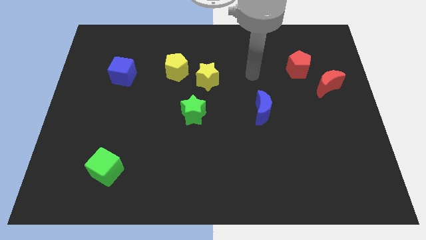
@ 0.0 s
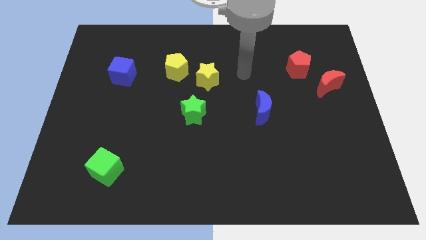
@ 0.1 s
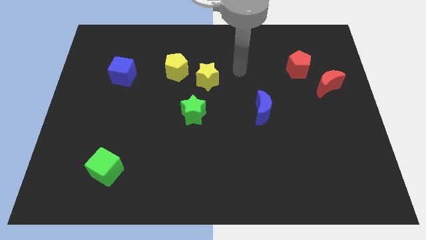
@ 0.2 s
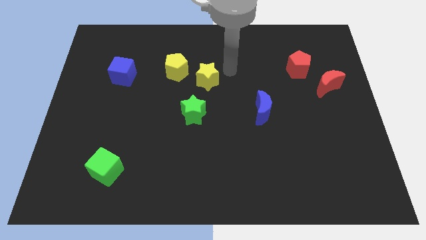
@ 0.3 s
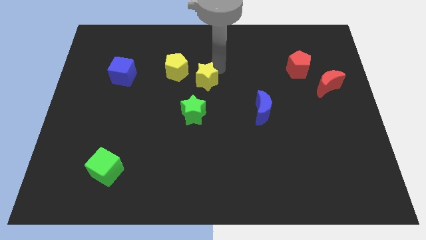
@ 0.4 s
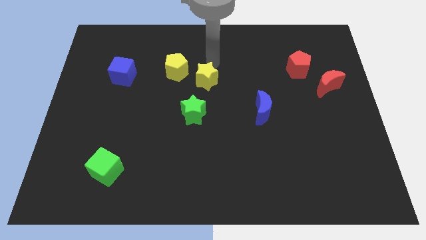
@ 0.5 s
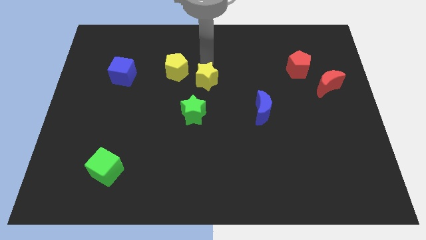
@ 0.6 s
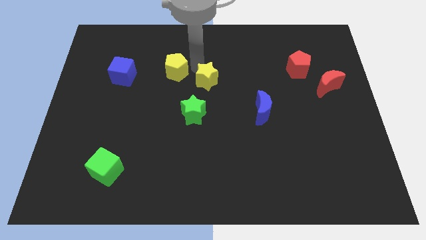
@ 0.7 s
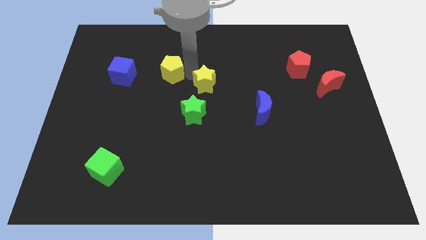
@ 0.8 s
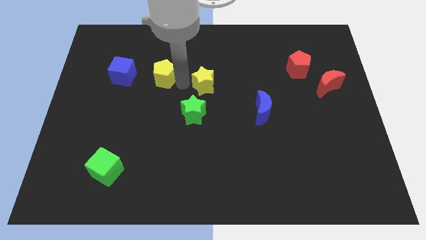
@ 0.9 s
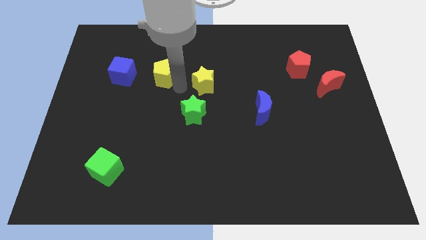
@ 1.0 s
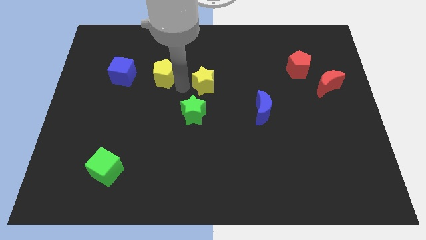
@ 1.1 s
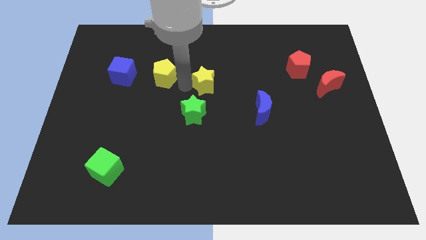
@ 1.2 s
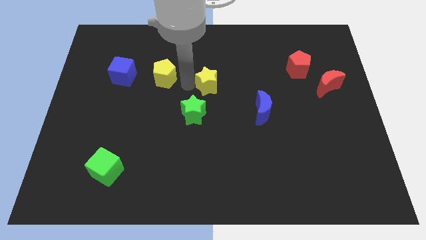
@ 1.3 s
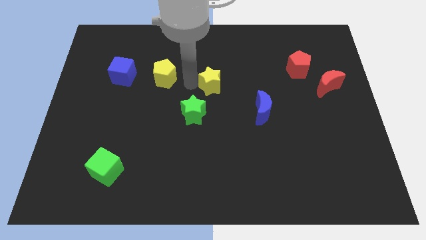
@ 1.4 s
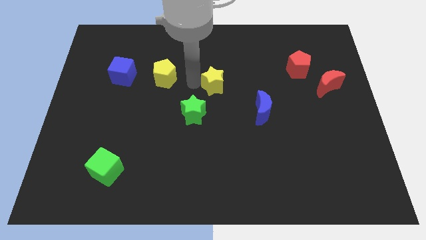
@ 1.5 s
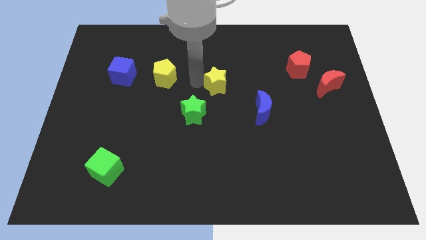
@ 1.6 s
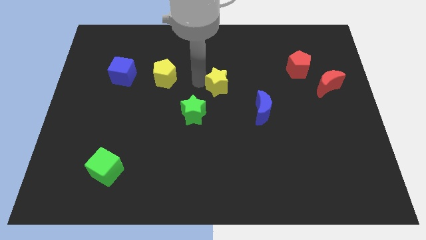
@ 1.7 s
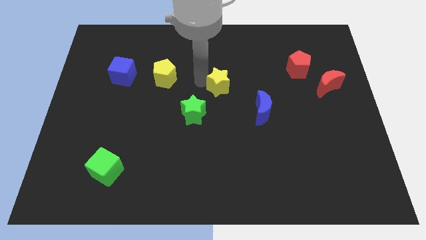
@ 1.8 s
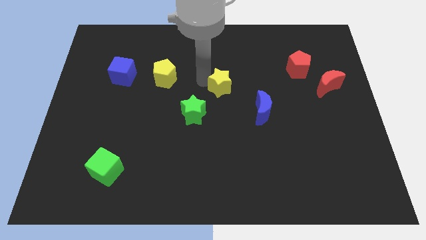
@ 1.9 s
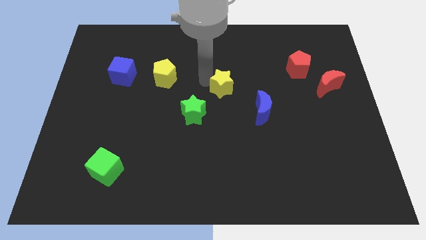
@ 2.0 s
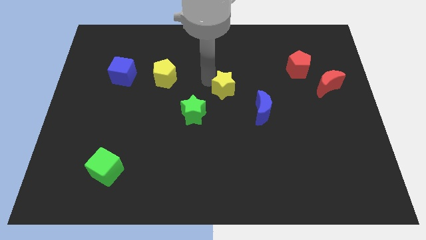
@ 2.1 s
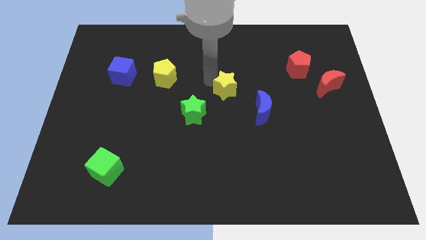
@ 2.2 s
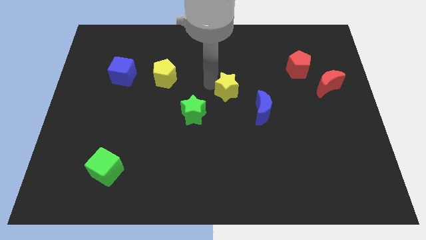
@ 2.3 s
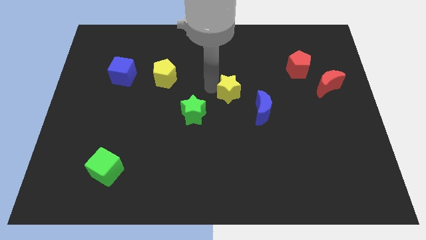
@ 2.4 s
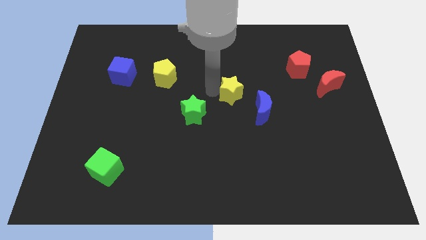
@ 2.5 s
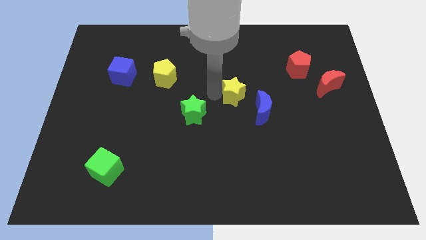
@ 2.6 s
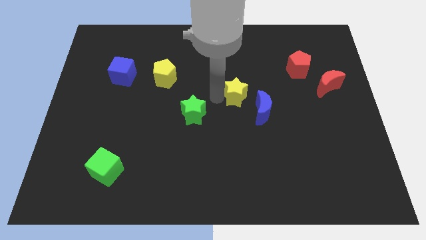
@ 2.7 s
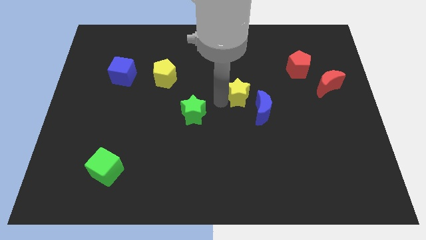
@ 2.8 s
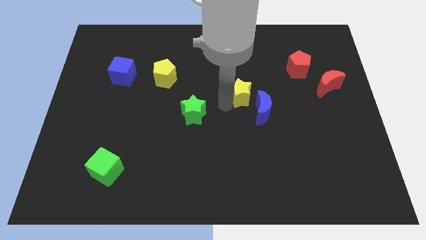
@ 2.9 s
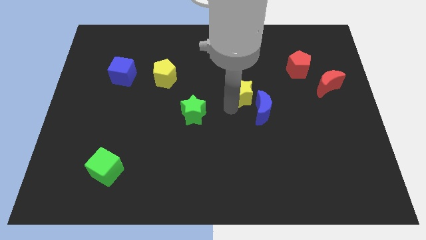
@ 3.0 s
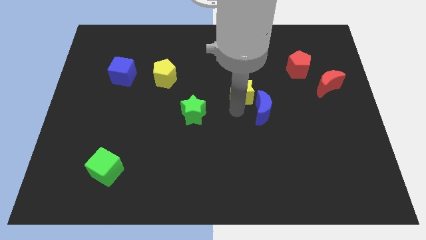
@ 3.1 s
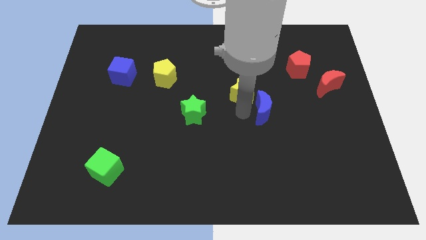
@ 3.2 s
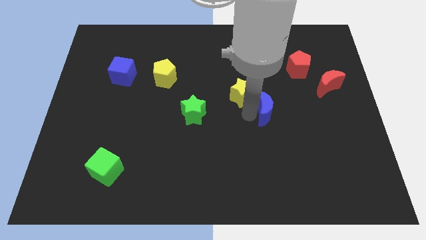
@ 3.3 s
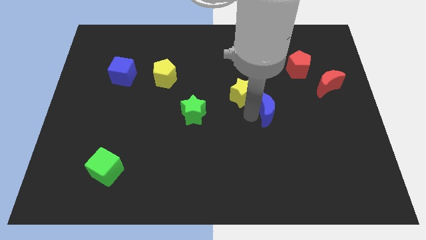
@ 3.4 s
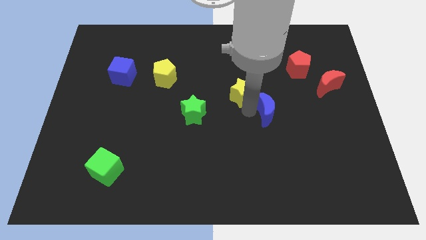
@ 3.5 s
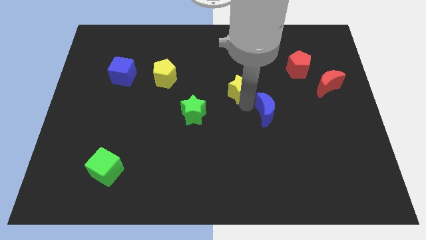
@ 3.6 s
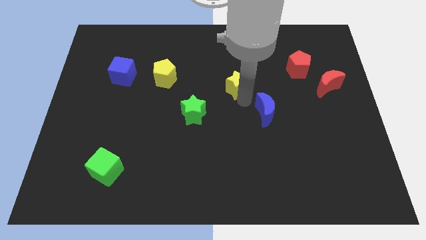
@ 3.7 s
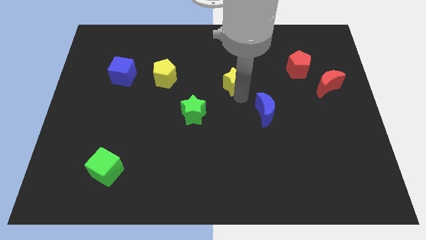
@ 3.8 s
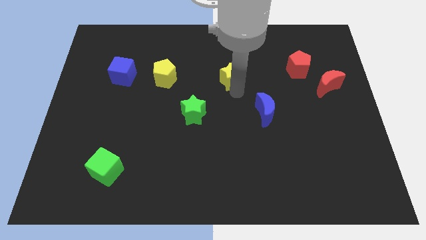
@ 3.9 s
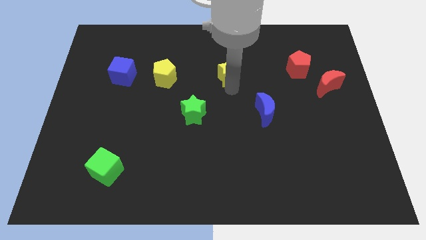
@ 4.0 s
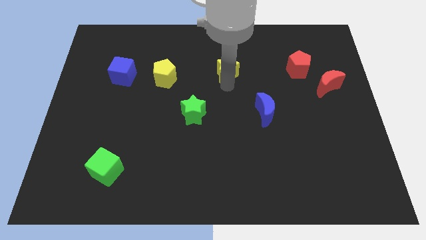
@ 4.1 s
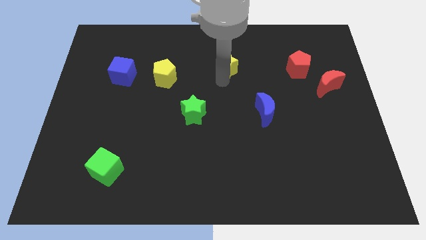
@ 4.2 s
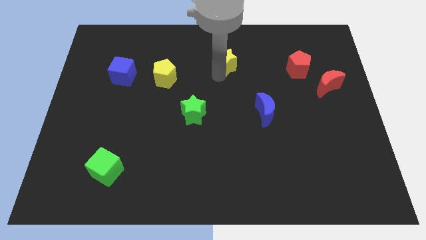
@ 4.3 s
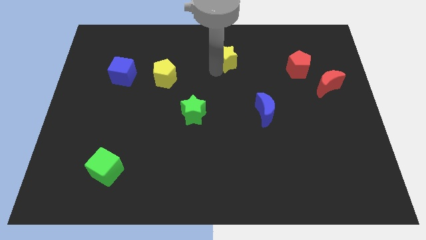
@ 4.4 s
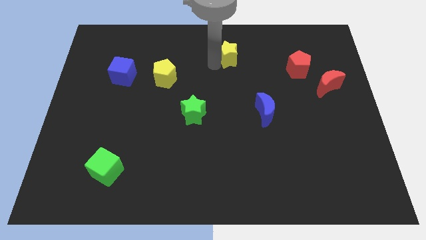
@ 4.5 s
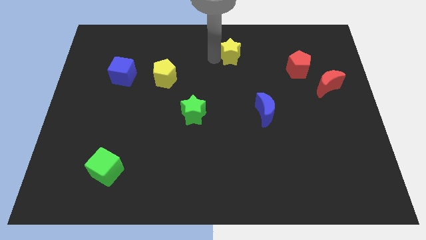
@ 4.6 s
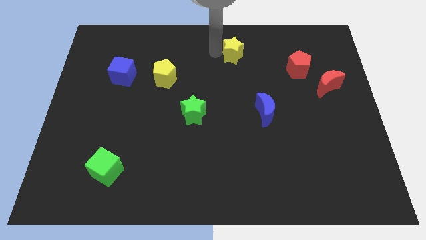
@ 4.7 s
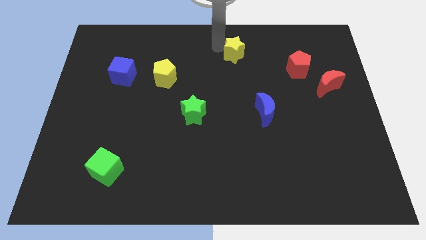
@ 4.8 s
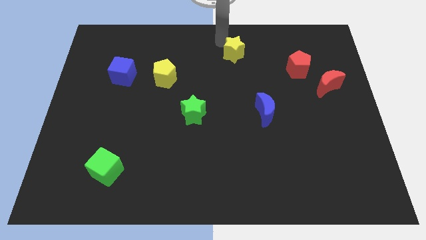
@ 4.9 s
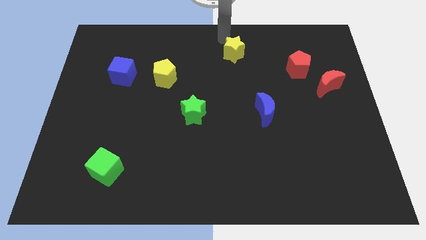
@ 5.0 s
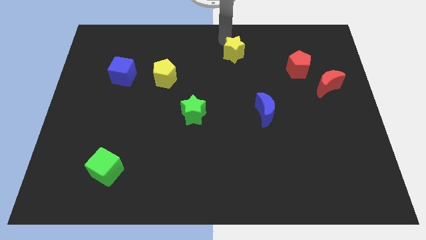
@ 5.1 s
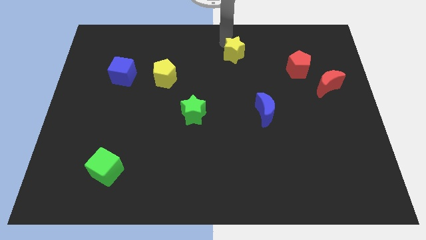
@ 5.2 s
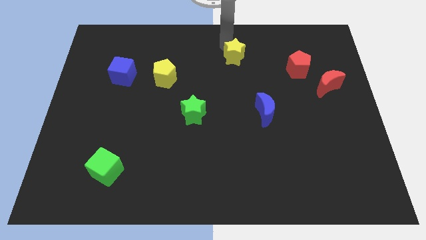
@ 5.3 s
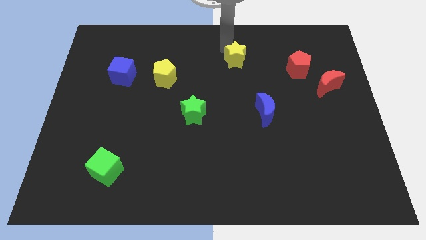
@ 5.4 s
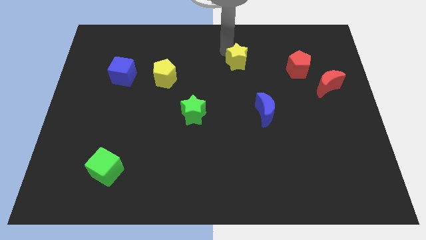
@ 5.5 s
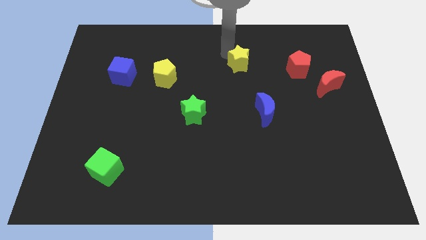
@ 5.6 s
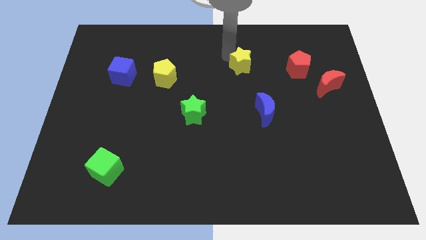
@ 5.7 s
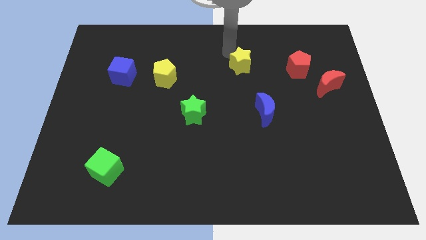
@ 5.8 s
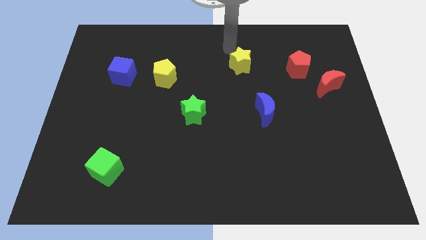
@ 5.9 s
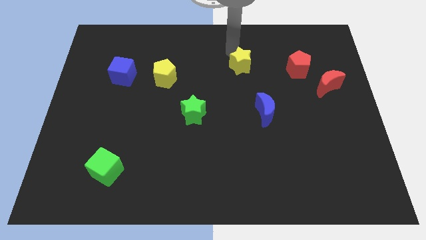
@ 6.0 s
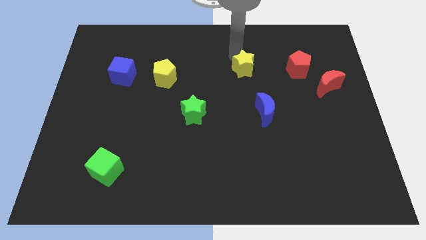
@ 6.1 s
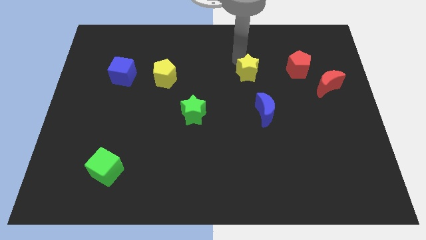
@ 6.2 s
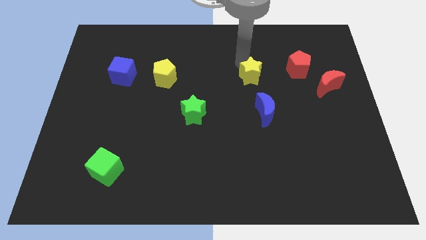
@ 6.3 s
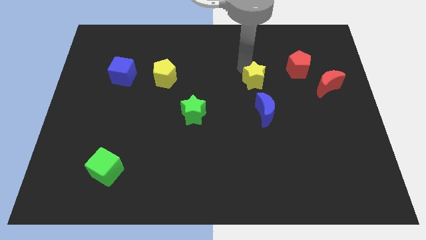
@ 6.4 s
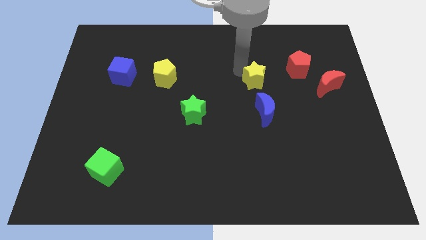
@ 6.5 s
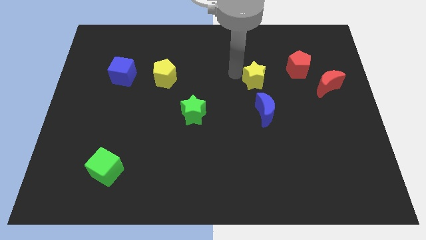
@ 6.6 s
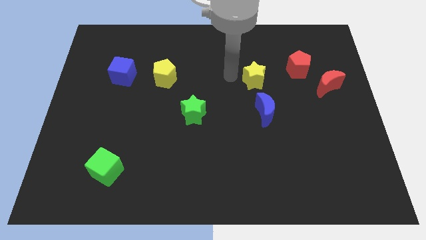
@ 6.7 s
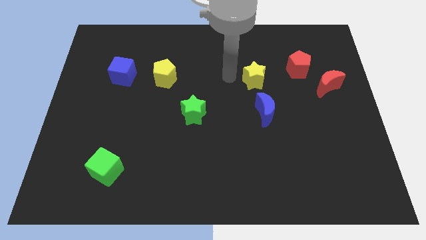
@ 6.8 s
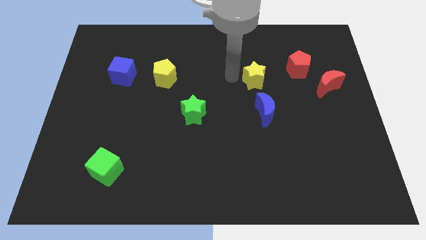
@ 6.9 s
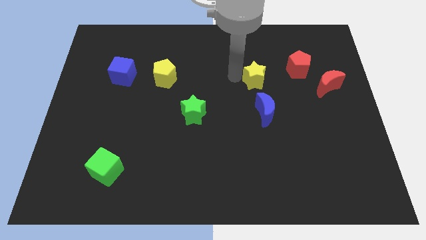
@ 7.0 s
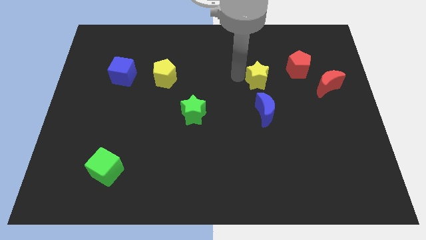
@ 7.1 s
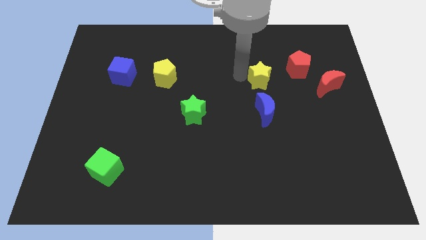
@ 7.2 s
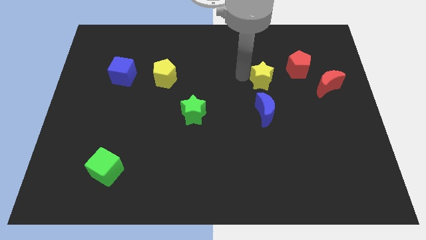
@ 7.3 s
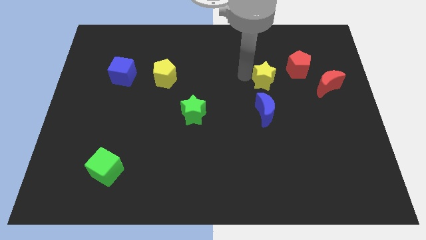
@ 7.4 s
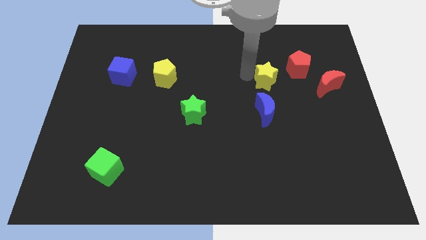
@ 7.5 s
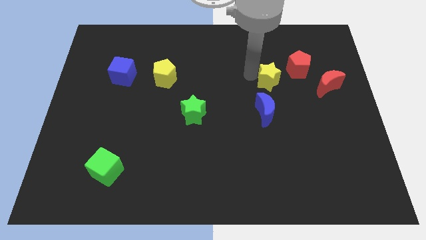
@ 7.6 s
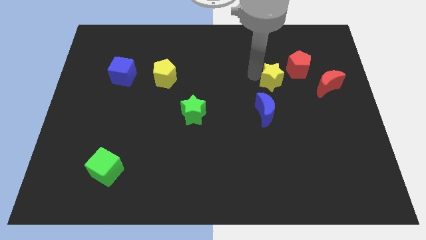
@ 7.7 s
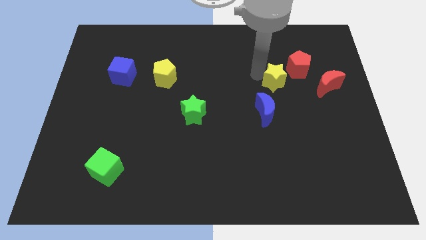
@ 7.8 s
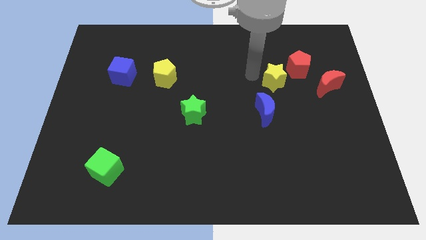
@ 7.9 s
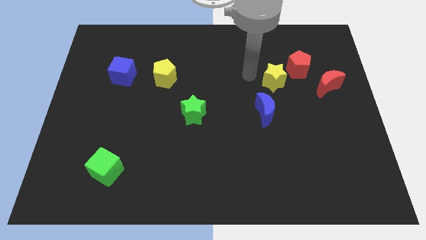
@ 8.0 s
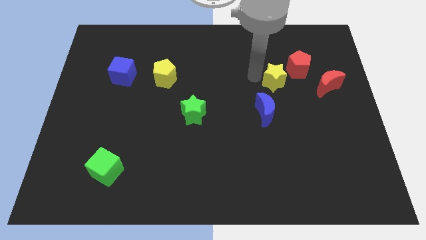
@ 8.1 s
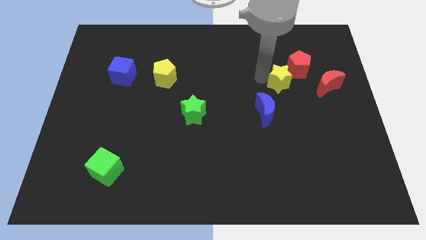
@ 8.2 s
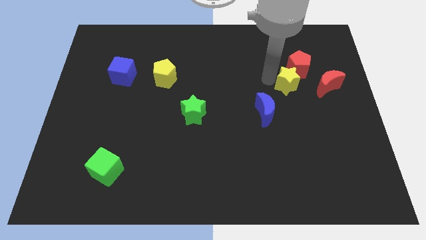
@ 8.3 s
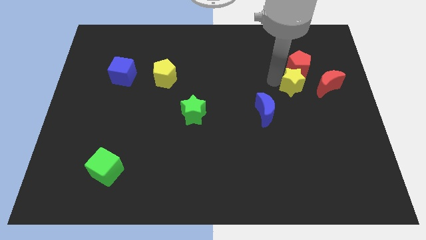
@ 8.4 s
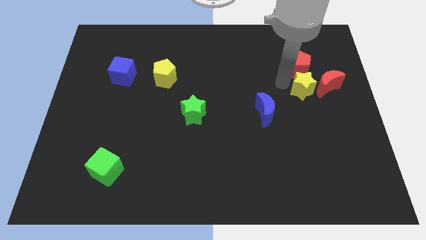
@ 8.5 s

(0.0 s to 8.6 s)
push the yellow star towards the red moon
